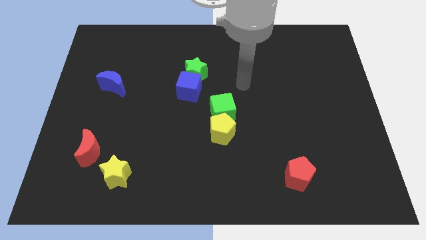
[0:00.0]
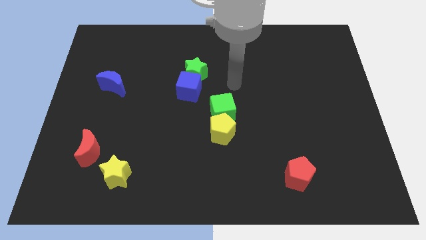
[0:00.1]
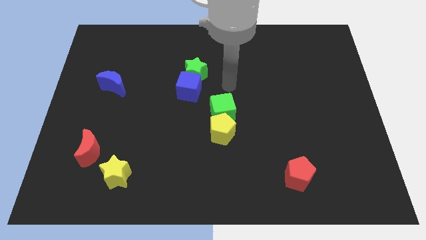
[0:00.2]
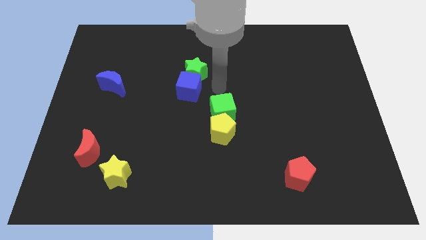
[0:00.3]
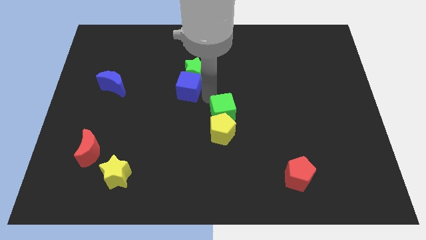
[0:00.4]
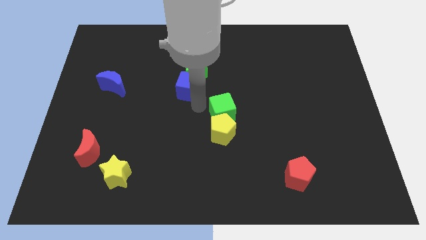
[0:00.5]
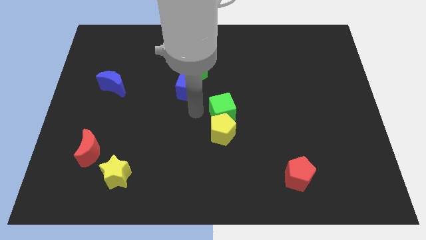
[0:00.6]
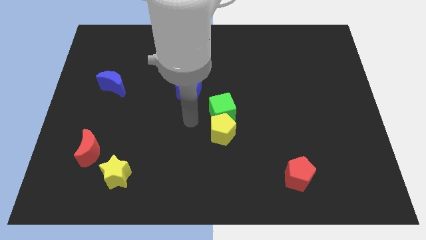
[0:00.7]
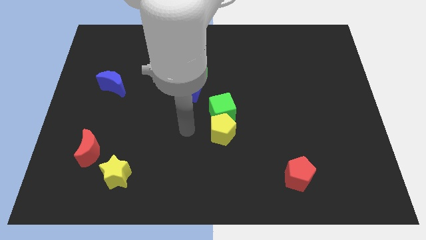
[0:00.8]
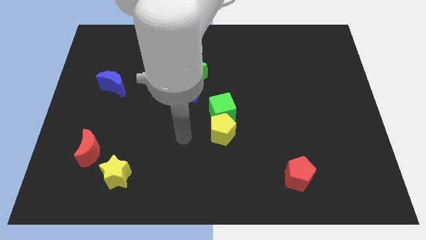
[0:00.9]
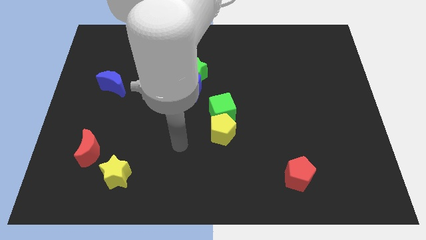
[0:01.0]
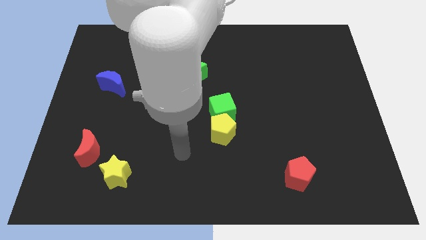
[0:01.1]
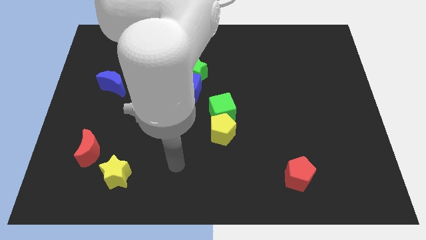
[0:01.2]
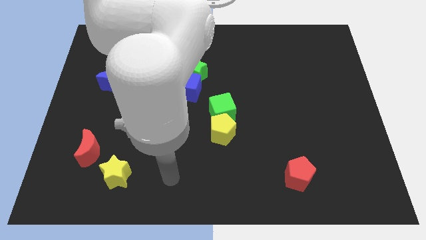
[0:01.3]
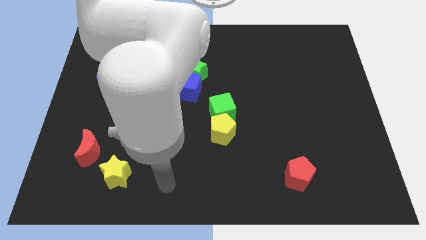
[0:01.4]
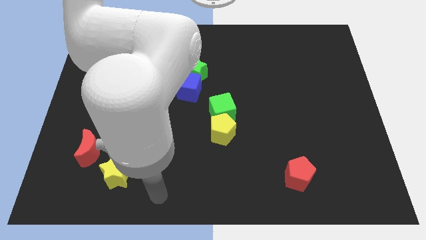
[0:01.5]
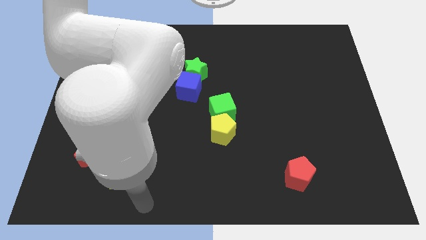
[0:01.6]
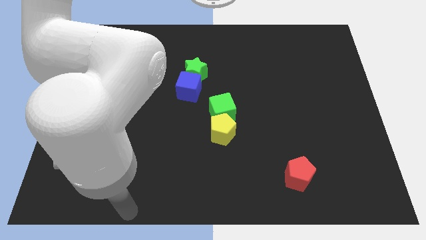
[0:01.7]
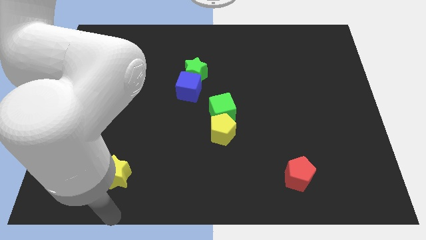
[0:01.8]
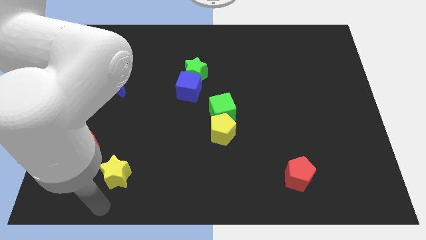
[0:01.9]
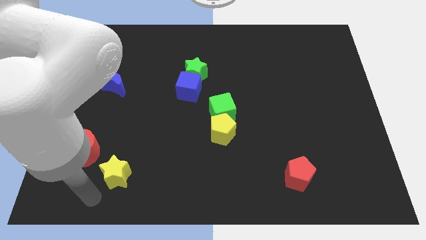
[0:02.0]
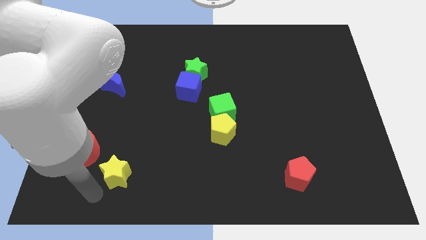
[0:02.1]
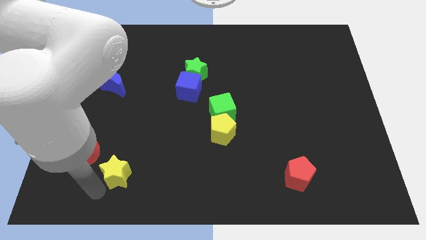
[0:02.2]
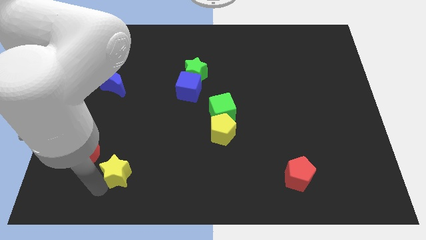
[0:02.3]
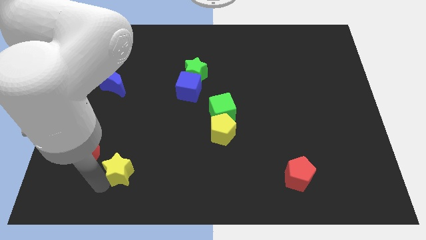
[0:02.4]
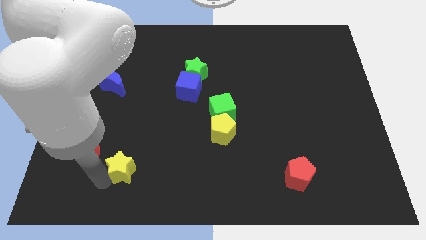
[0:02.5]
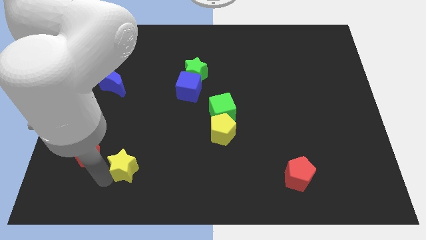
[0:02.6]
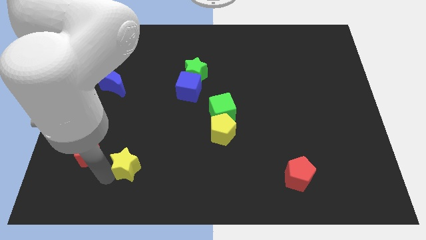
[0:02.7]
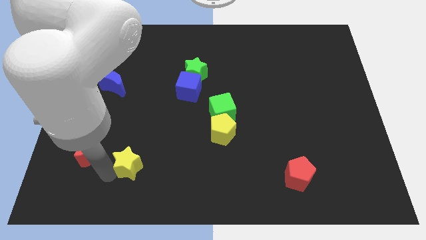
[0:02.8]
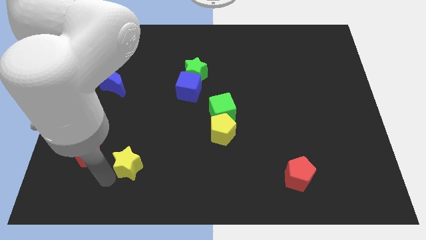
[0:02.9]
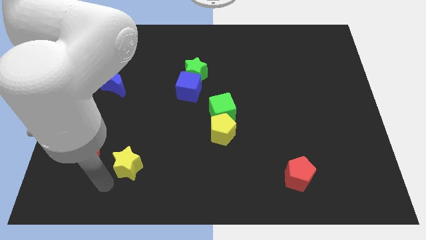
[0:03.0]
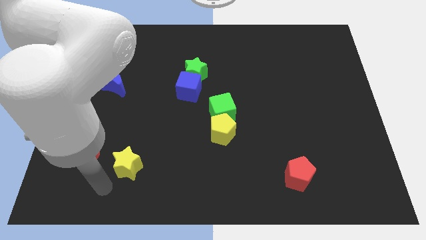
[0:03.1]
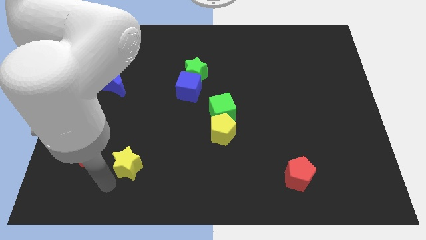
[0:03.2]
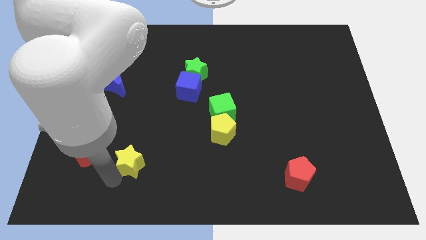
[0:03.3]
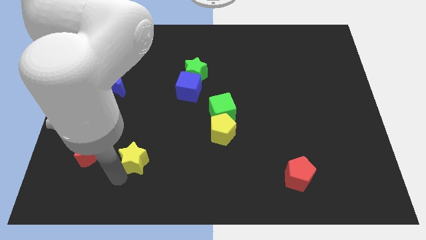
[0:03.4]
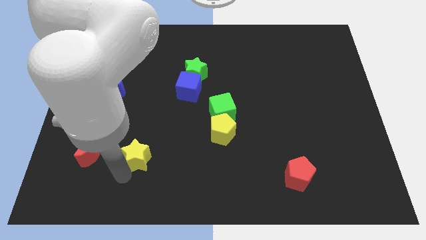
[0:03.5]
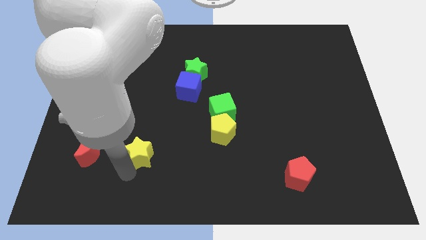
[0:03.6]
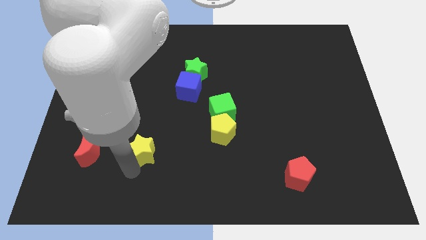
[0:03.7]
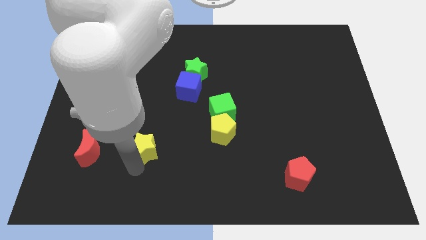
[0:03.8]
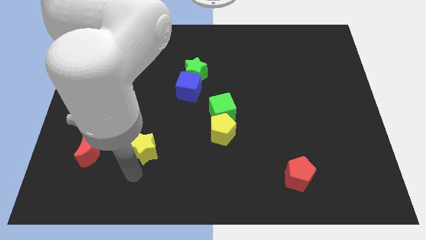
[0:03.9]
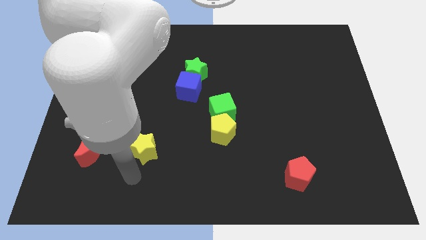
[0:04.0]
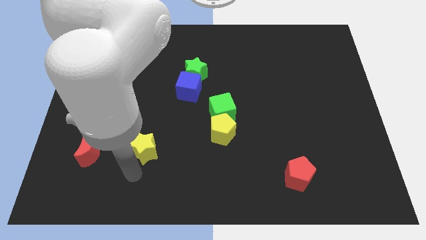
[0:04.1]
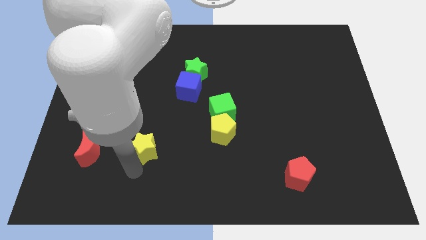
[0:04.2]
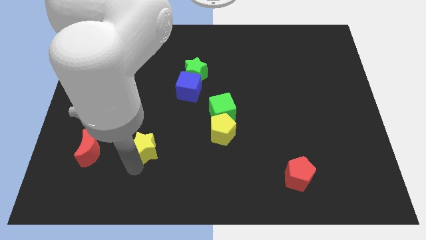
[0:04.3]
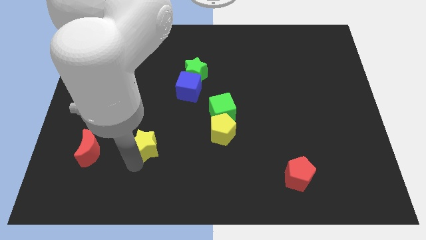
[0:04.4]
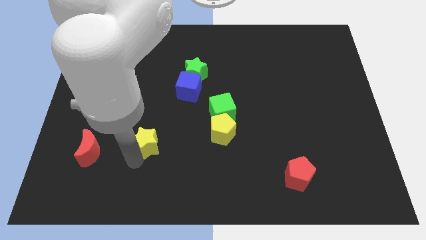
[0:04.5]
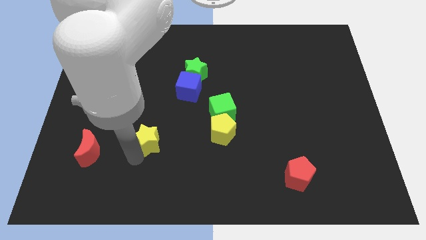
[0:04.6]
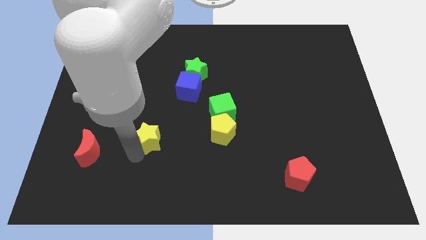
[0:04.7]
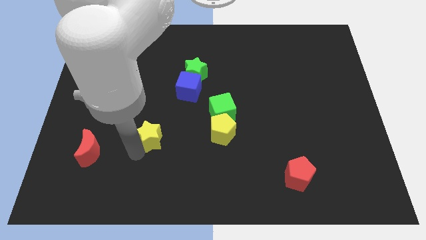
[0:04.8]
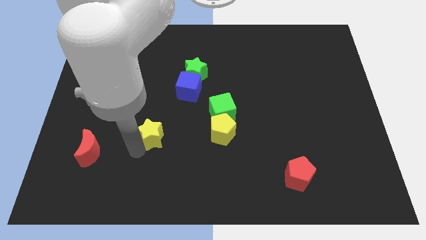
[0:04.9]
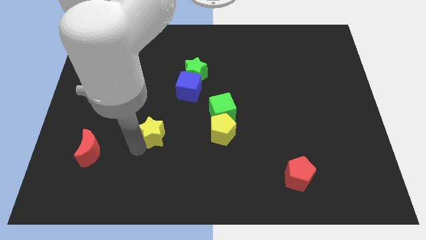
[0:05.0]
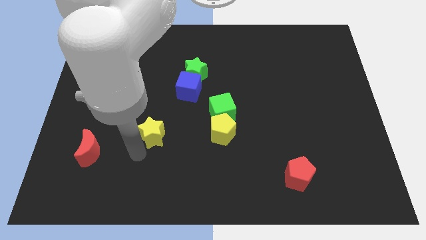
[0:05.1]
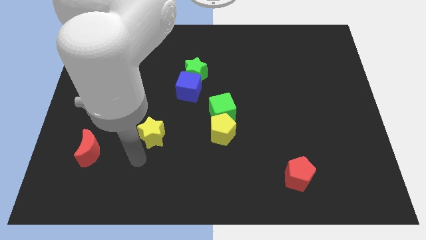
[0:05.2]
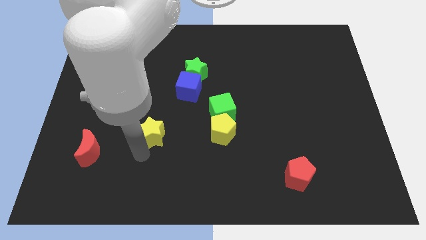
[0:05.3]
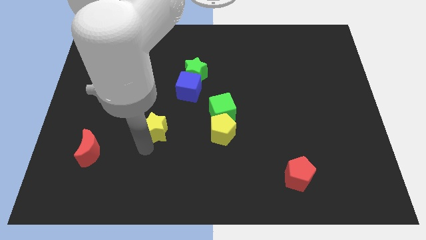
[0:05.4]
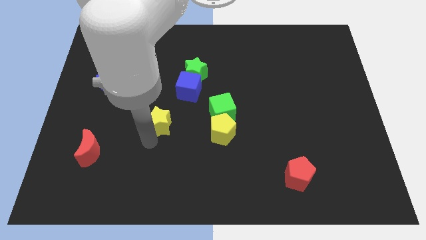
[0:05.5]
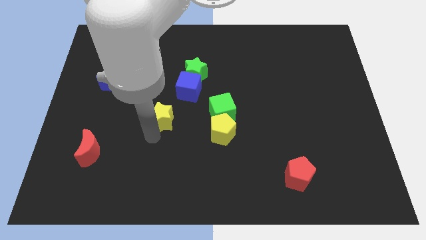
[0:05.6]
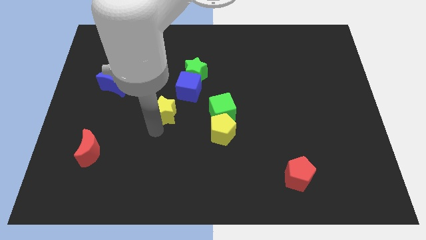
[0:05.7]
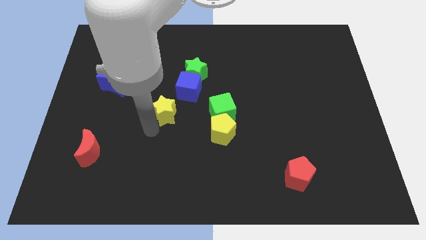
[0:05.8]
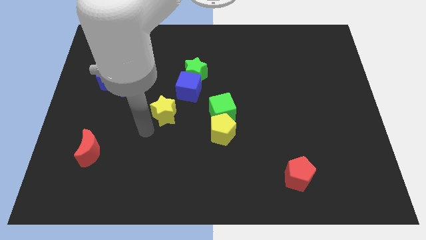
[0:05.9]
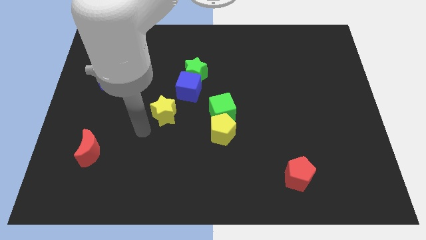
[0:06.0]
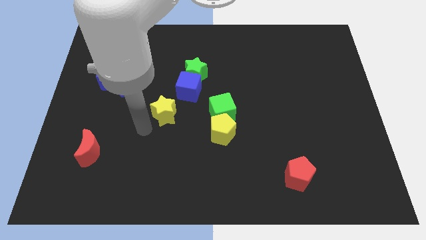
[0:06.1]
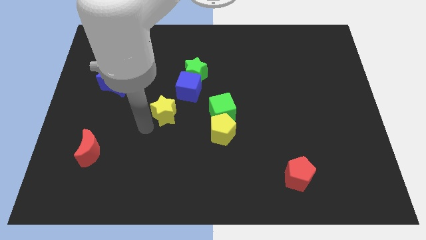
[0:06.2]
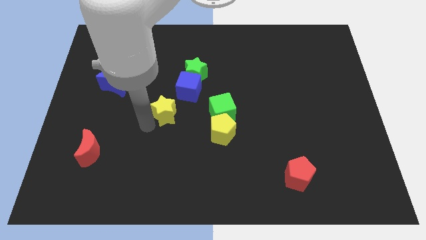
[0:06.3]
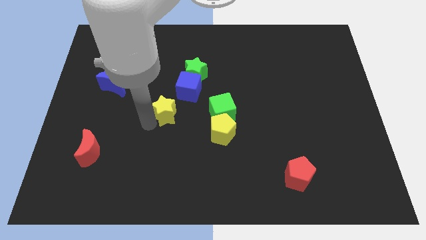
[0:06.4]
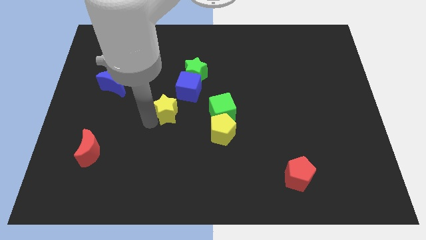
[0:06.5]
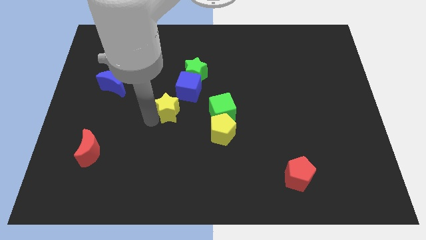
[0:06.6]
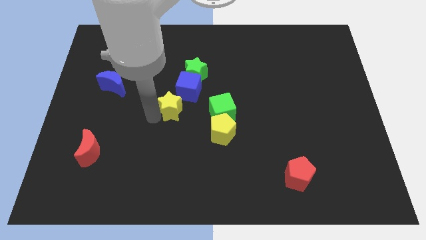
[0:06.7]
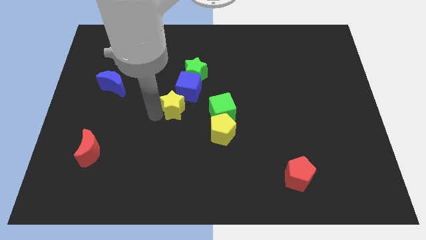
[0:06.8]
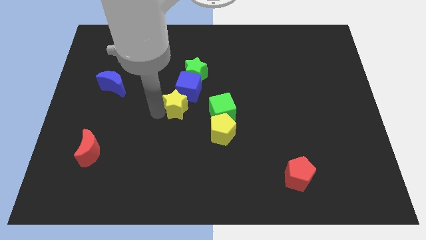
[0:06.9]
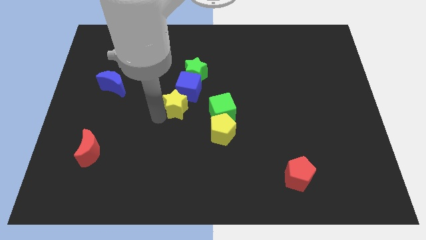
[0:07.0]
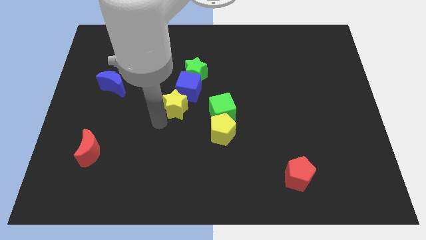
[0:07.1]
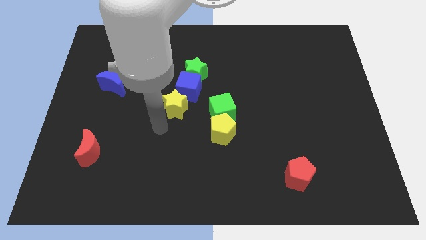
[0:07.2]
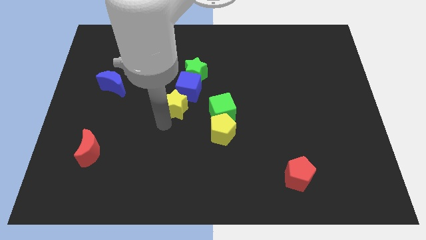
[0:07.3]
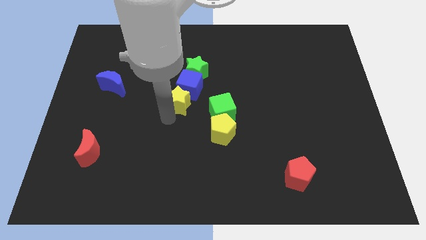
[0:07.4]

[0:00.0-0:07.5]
move the yellow star to the blue cube
